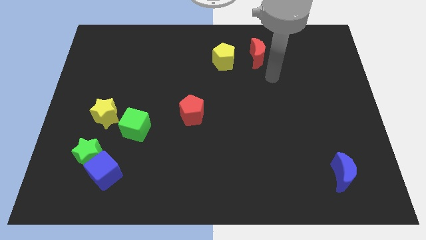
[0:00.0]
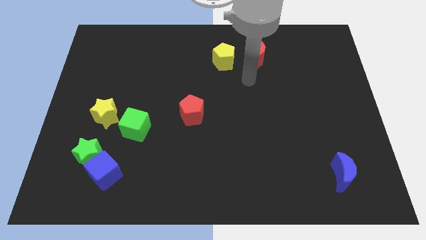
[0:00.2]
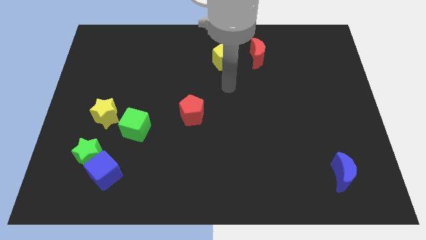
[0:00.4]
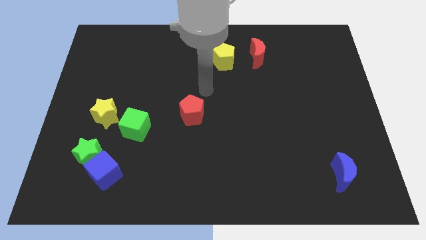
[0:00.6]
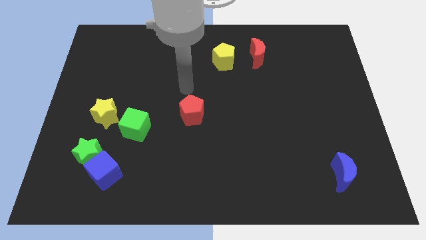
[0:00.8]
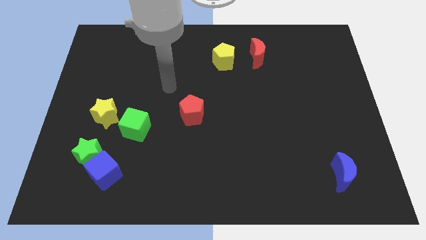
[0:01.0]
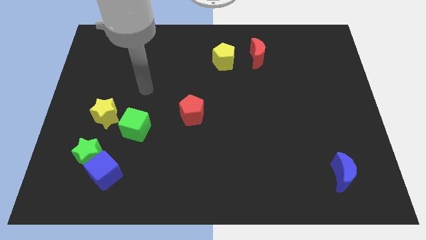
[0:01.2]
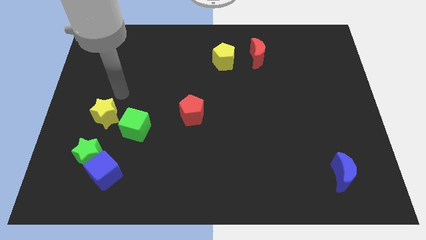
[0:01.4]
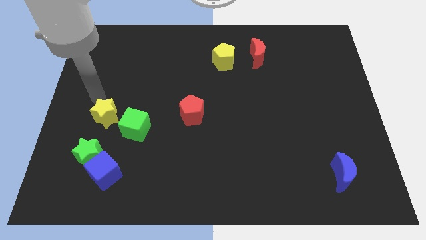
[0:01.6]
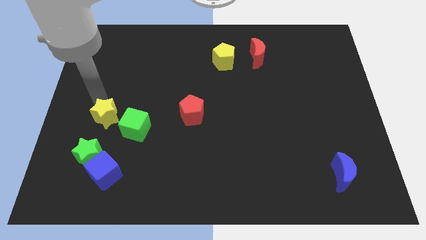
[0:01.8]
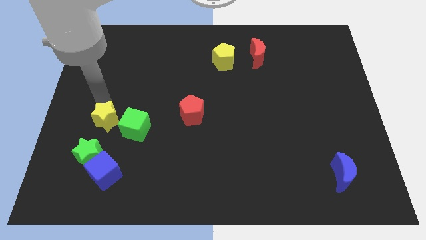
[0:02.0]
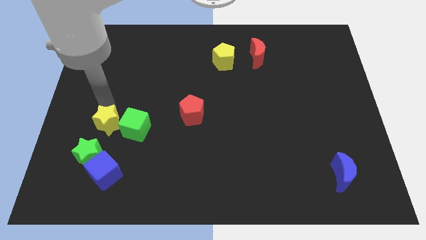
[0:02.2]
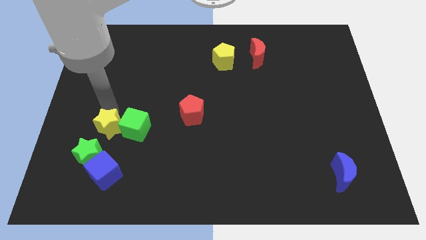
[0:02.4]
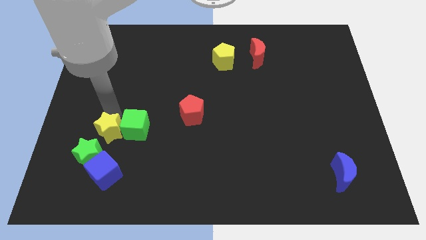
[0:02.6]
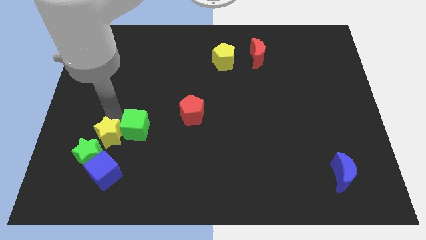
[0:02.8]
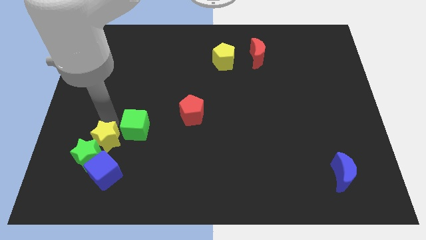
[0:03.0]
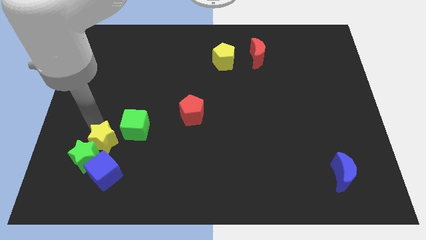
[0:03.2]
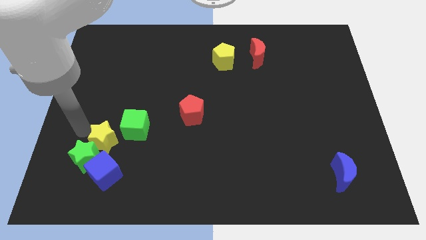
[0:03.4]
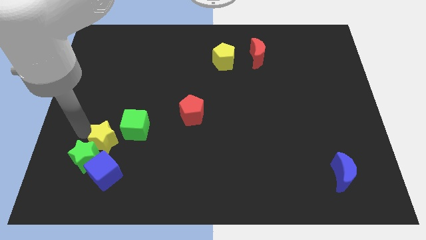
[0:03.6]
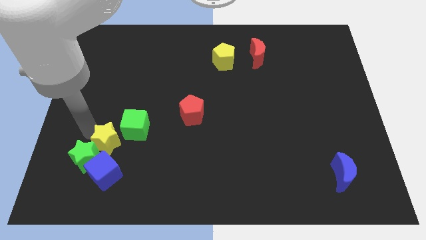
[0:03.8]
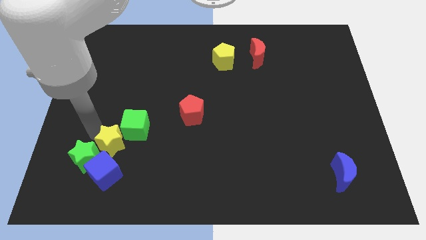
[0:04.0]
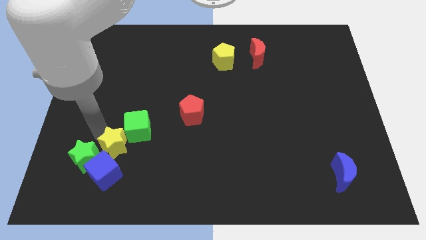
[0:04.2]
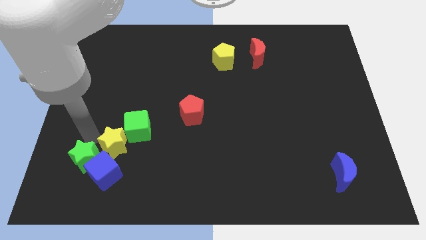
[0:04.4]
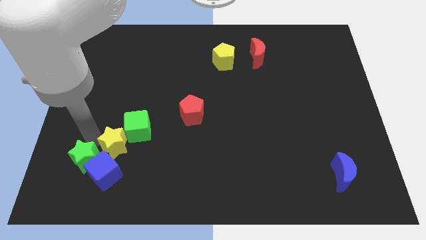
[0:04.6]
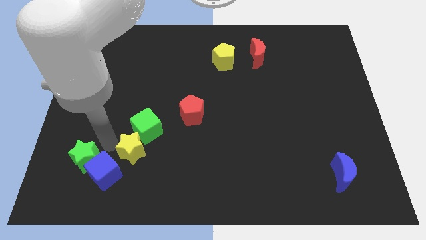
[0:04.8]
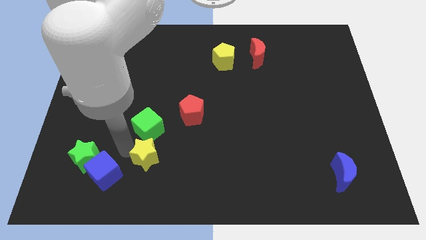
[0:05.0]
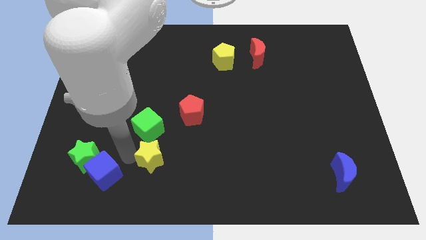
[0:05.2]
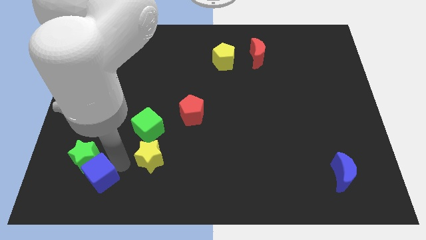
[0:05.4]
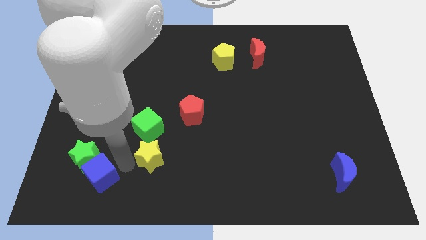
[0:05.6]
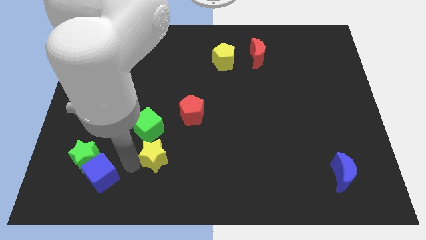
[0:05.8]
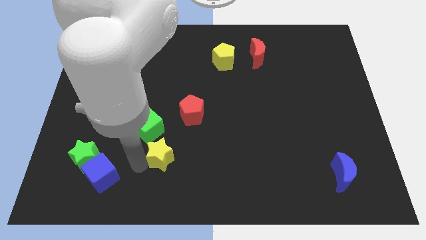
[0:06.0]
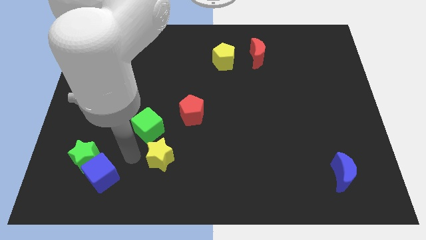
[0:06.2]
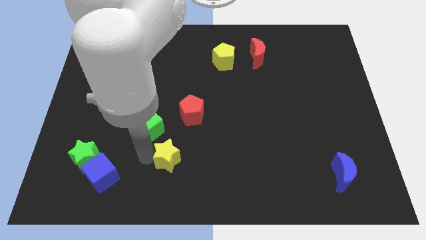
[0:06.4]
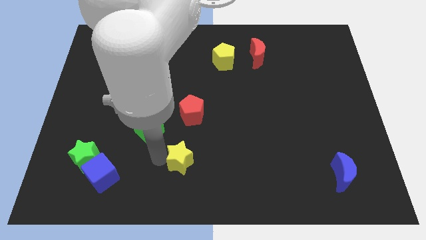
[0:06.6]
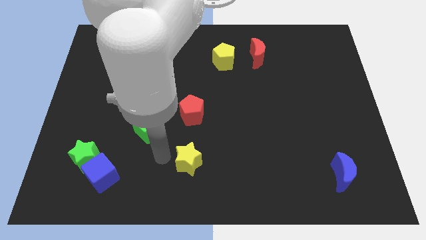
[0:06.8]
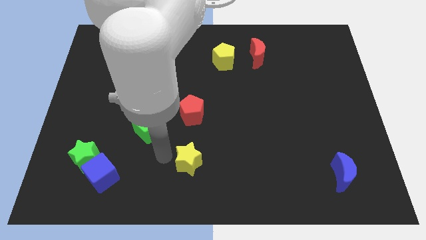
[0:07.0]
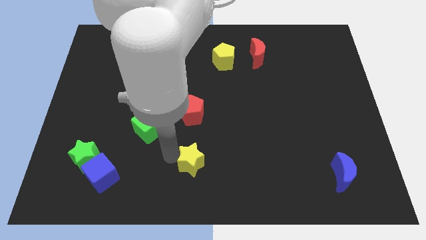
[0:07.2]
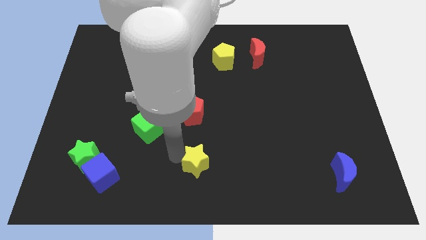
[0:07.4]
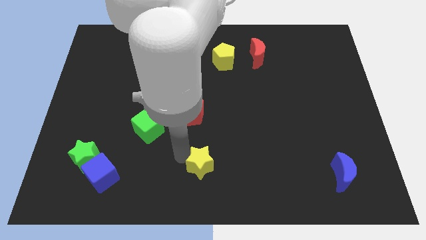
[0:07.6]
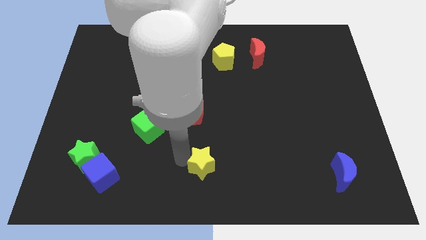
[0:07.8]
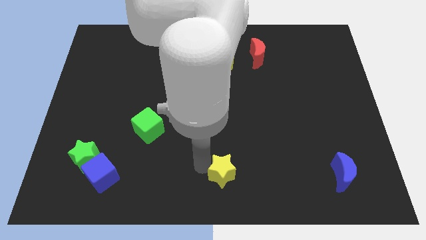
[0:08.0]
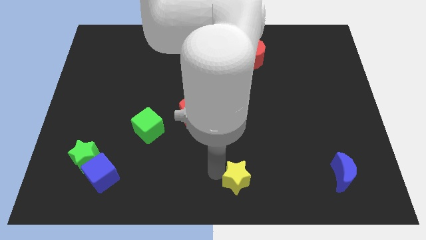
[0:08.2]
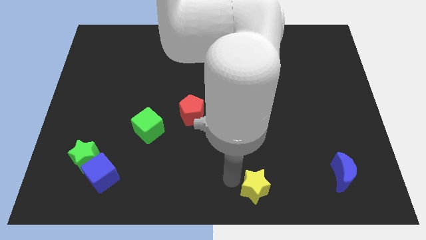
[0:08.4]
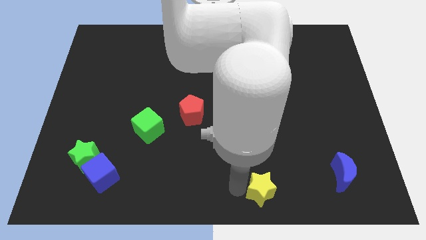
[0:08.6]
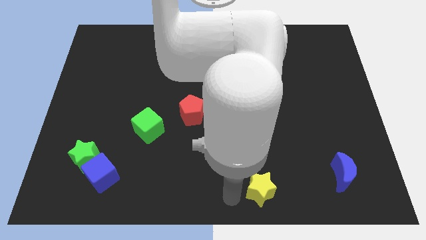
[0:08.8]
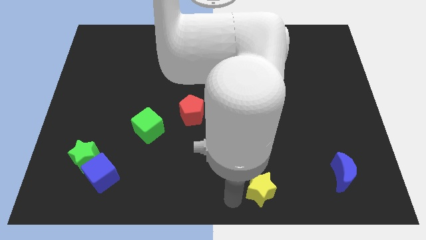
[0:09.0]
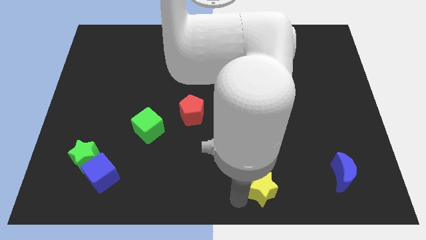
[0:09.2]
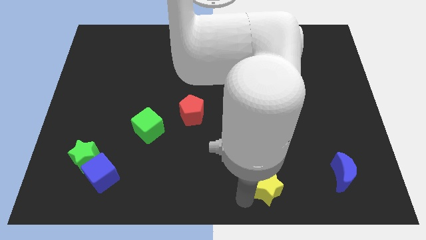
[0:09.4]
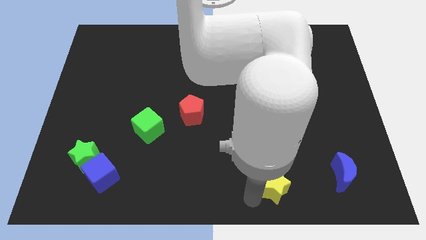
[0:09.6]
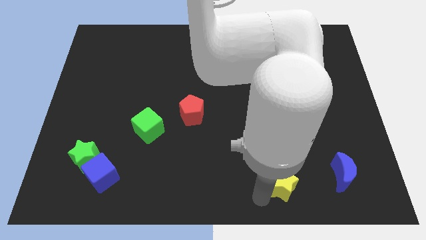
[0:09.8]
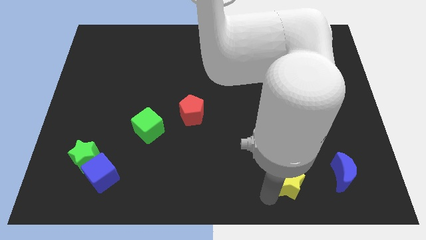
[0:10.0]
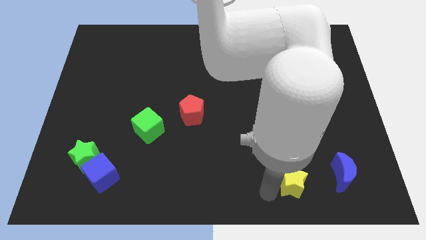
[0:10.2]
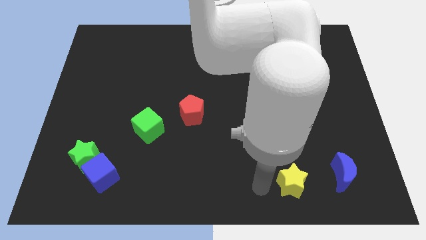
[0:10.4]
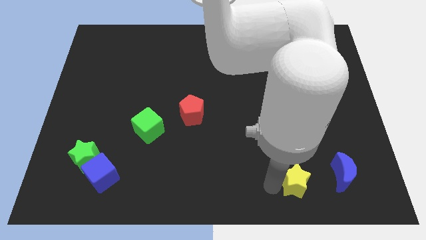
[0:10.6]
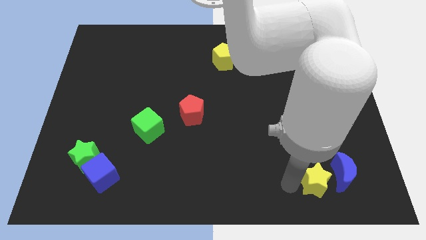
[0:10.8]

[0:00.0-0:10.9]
slide the yellow star close to the blue moon

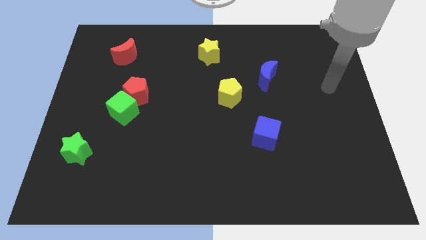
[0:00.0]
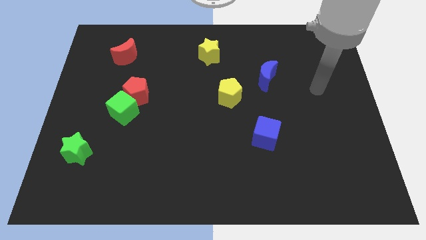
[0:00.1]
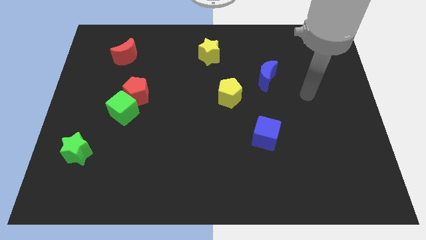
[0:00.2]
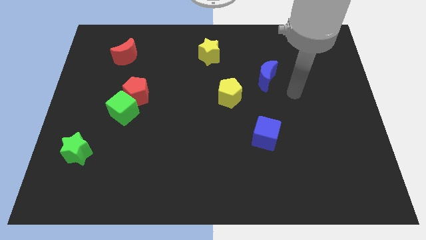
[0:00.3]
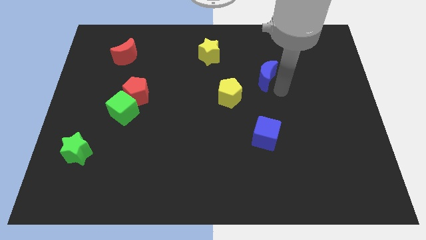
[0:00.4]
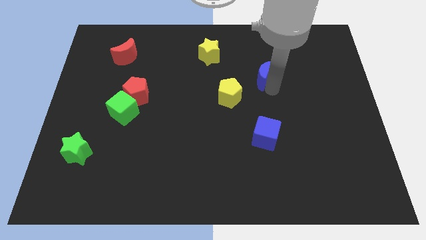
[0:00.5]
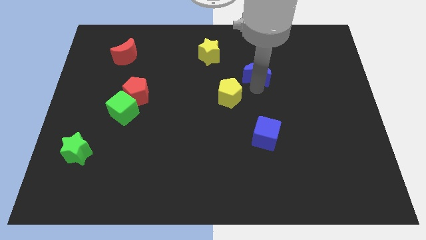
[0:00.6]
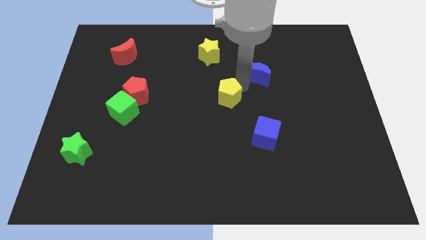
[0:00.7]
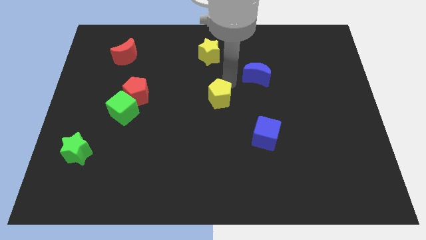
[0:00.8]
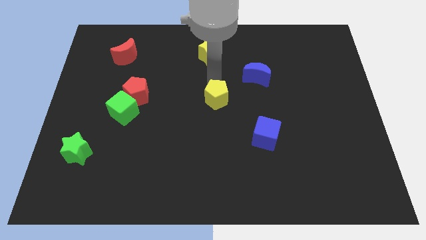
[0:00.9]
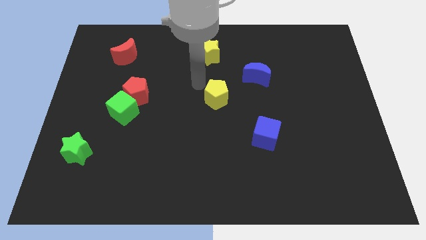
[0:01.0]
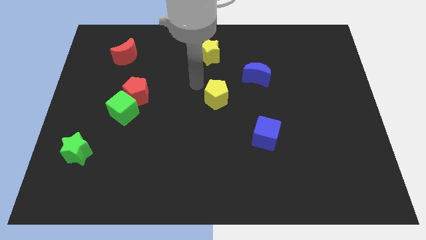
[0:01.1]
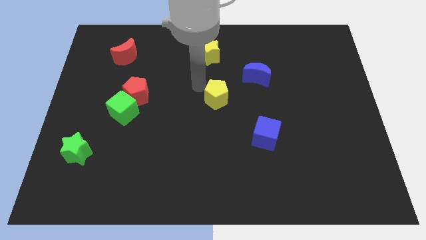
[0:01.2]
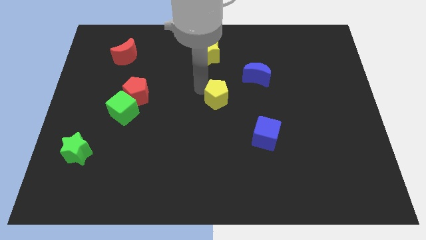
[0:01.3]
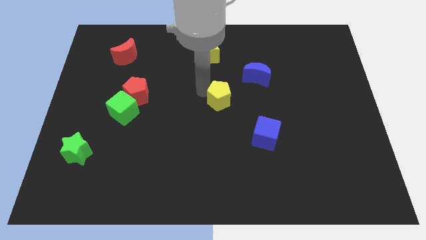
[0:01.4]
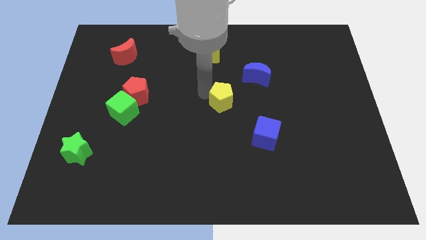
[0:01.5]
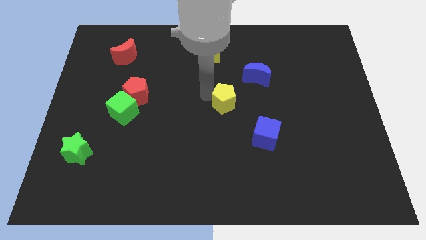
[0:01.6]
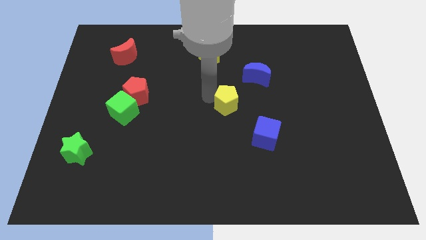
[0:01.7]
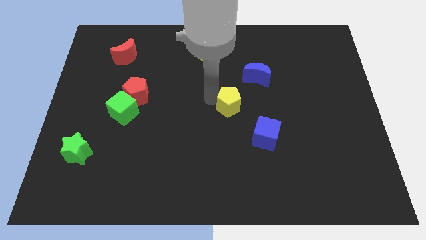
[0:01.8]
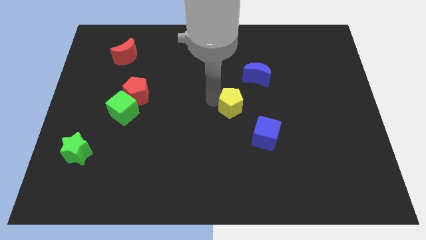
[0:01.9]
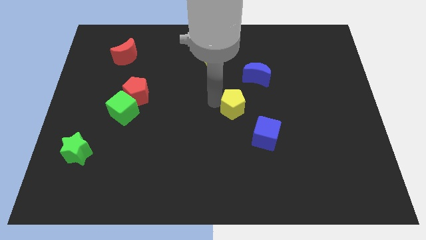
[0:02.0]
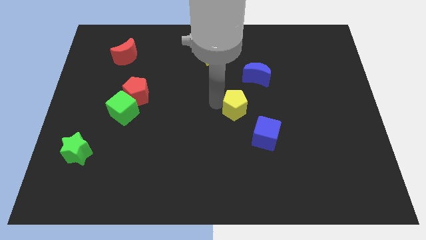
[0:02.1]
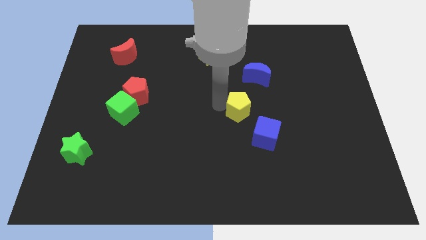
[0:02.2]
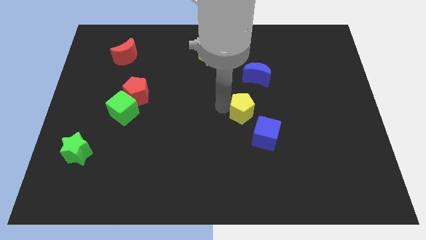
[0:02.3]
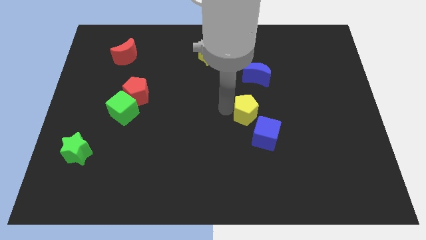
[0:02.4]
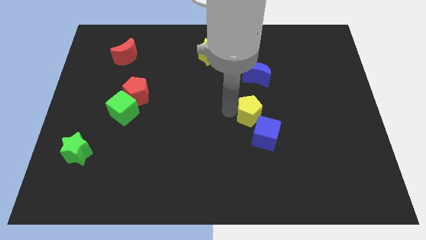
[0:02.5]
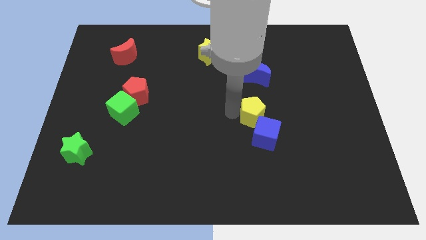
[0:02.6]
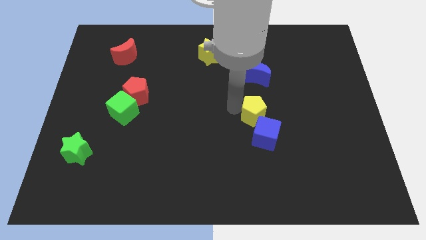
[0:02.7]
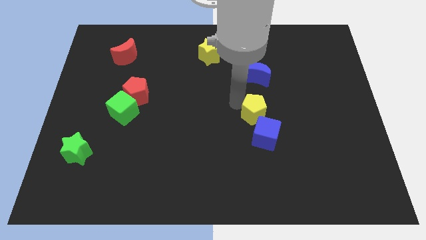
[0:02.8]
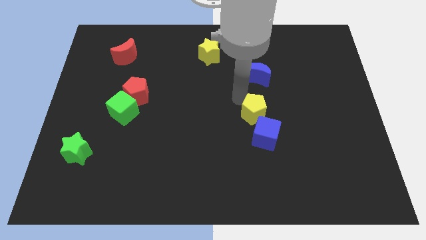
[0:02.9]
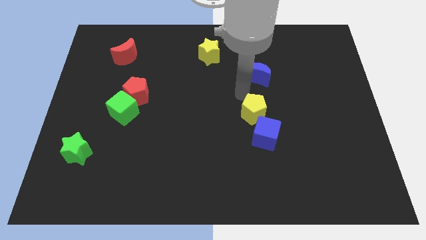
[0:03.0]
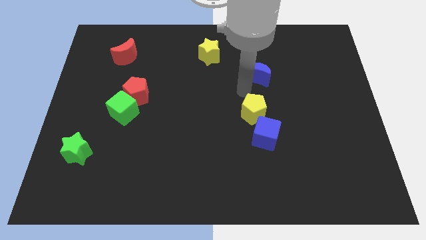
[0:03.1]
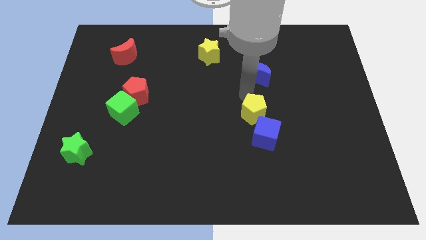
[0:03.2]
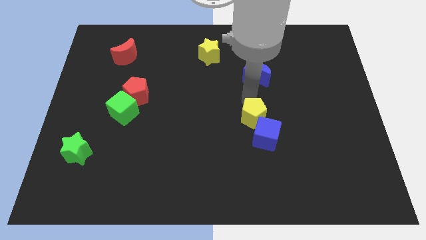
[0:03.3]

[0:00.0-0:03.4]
put the yellow pentagon close to the blue cube
